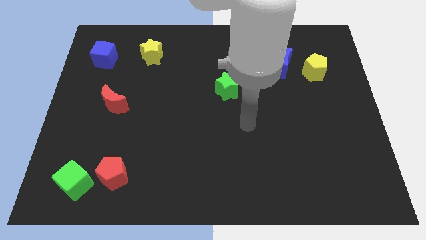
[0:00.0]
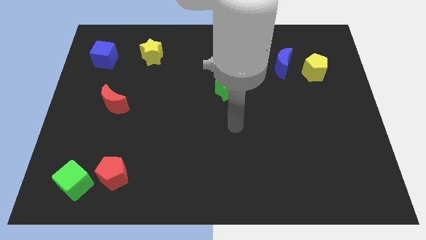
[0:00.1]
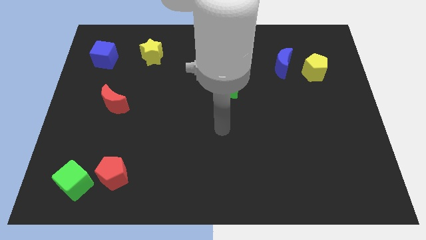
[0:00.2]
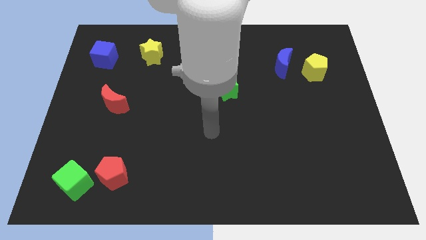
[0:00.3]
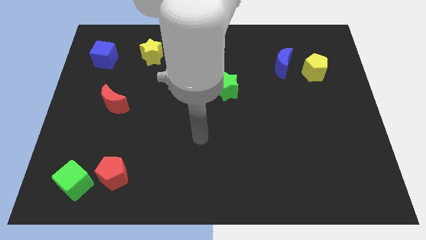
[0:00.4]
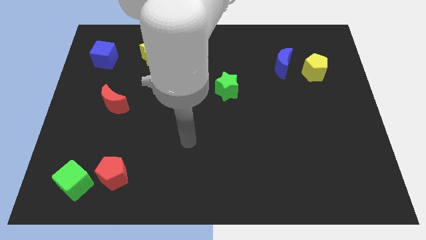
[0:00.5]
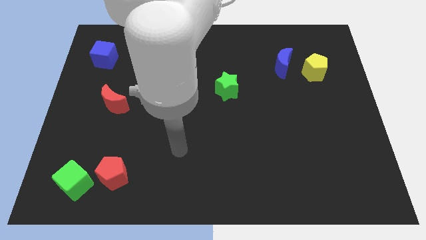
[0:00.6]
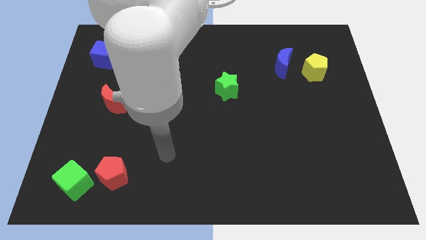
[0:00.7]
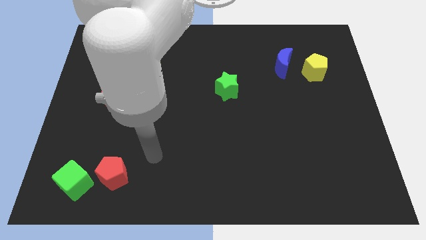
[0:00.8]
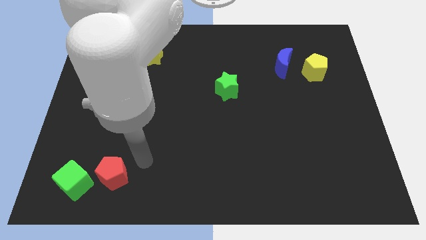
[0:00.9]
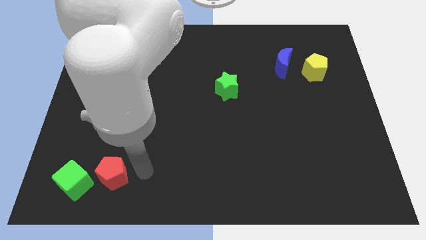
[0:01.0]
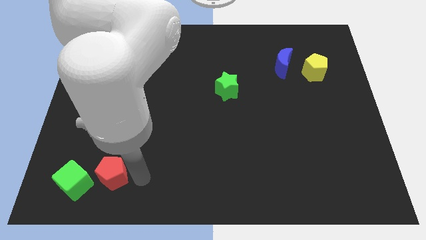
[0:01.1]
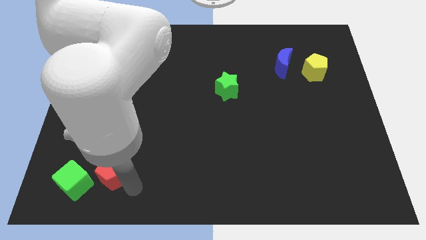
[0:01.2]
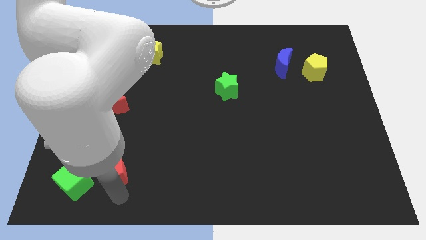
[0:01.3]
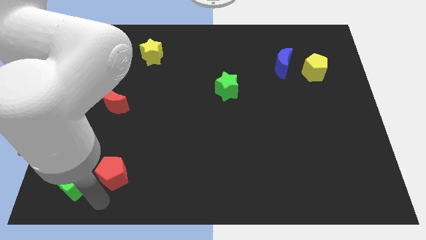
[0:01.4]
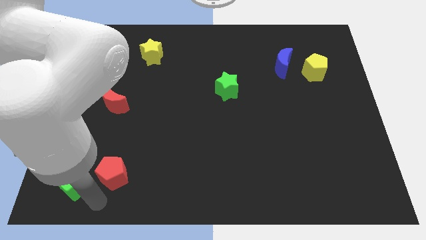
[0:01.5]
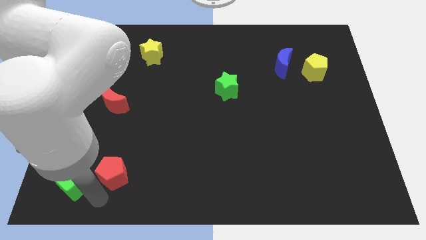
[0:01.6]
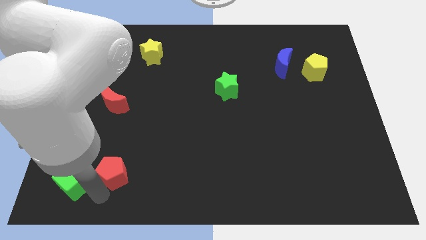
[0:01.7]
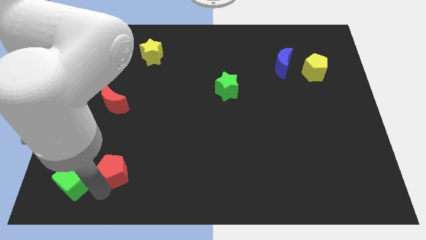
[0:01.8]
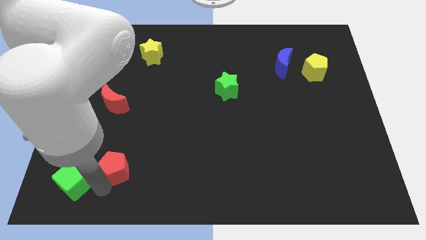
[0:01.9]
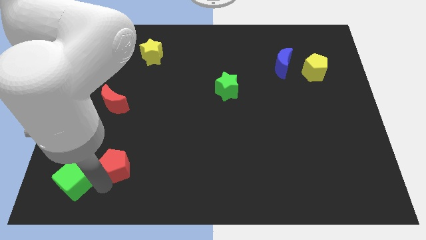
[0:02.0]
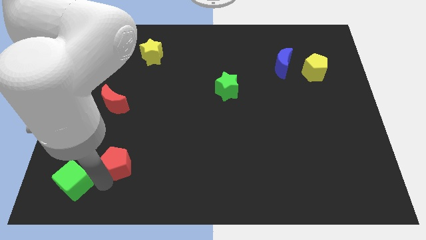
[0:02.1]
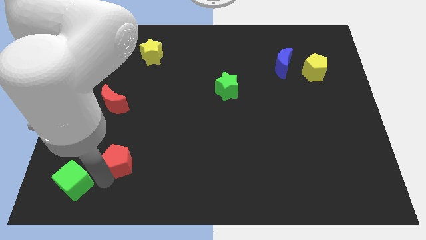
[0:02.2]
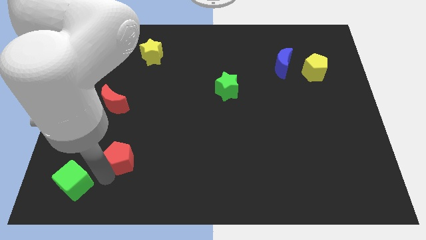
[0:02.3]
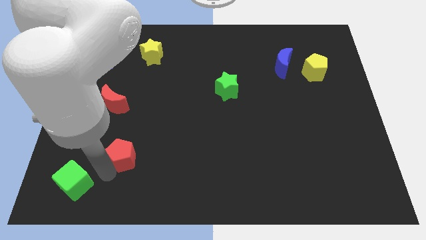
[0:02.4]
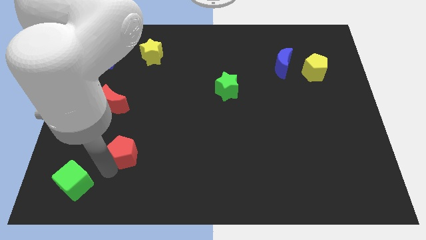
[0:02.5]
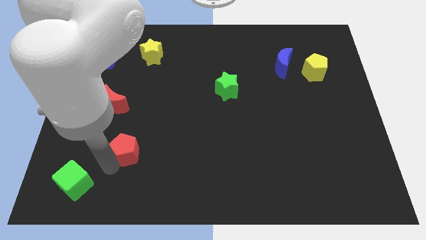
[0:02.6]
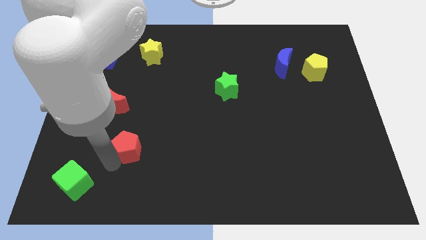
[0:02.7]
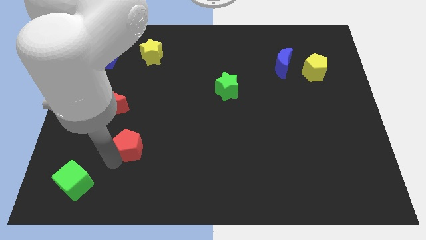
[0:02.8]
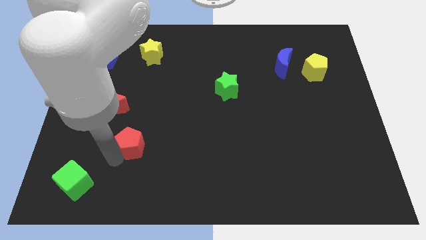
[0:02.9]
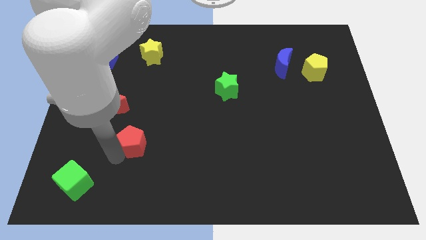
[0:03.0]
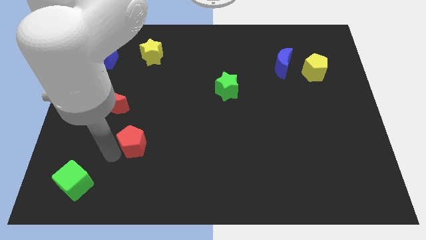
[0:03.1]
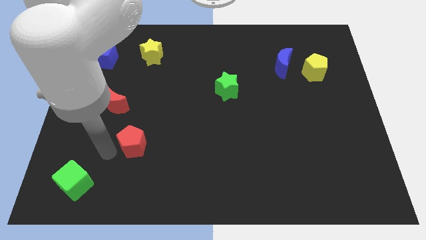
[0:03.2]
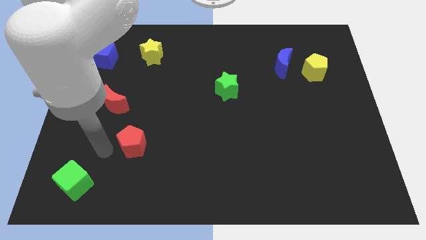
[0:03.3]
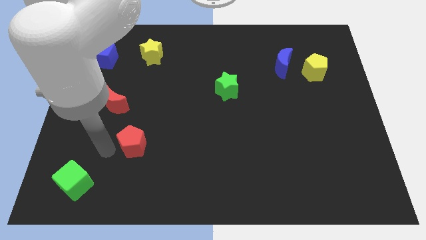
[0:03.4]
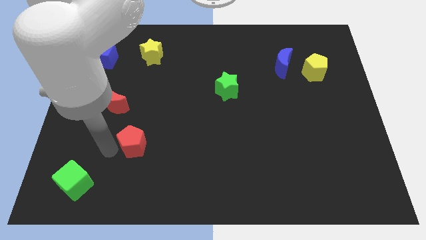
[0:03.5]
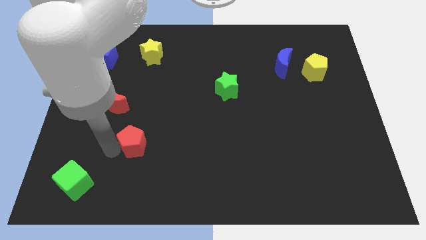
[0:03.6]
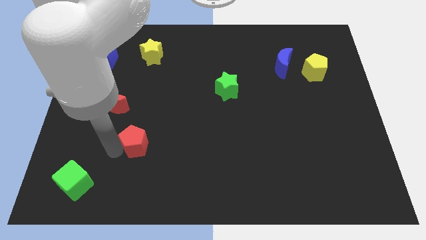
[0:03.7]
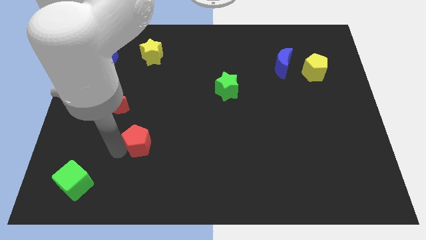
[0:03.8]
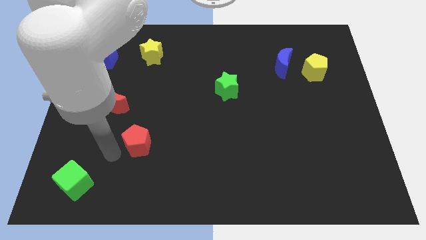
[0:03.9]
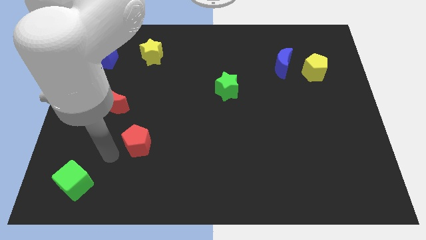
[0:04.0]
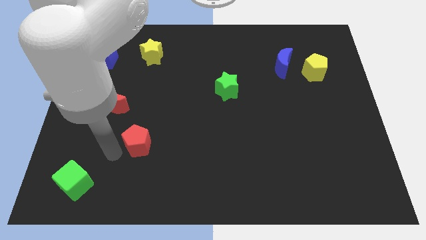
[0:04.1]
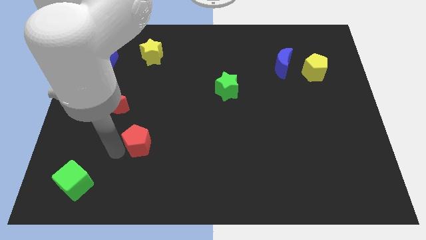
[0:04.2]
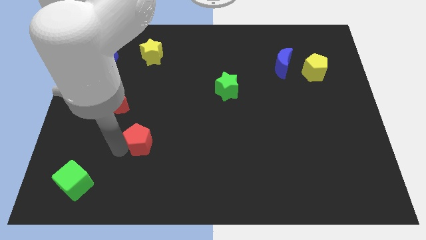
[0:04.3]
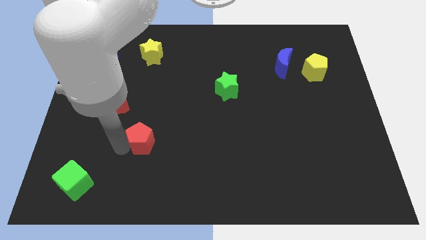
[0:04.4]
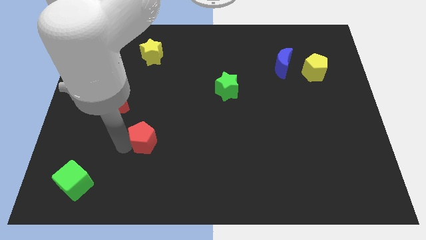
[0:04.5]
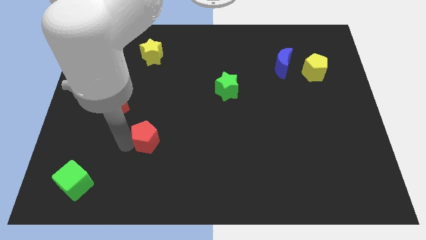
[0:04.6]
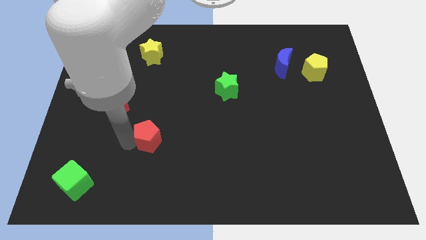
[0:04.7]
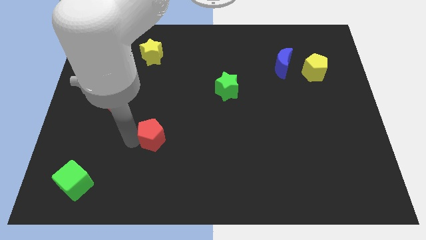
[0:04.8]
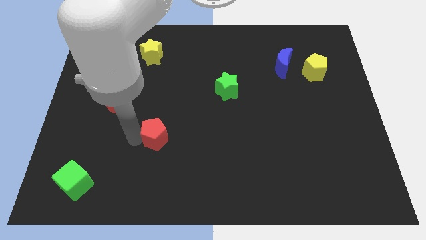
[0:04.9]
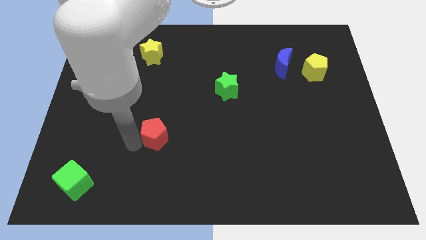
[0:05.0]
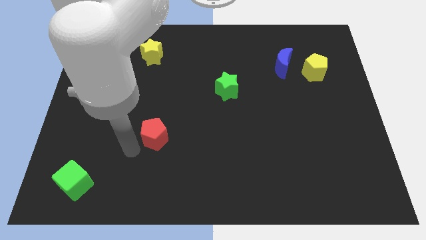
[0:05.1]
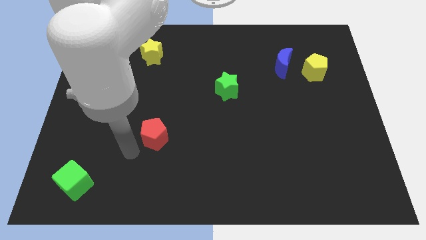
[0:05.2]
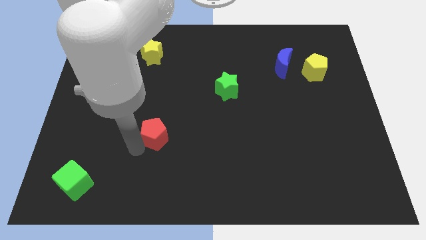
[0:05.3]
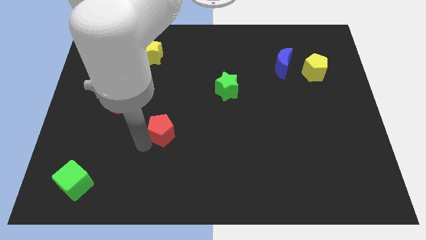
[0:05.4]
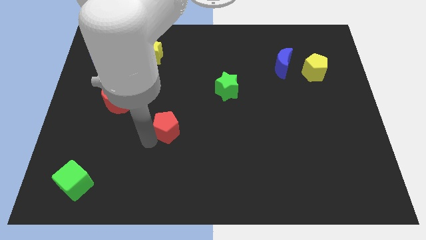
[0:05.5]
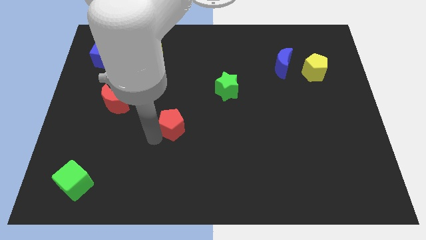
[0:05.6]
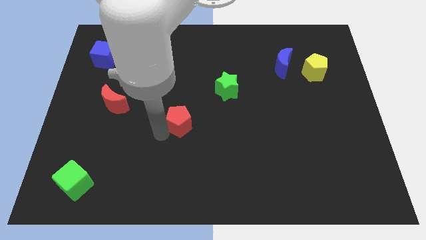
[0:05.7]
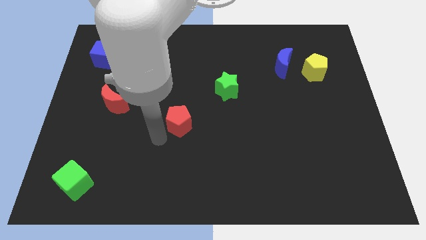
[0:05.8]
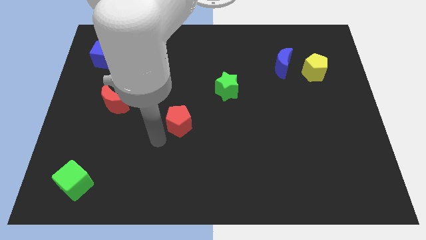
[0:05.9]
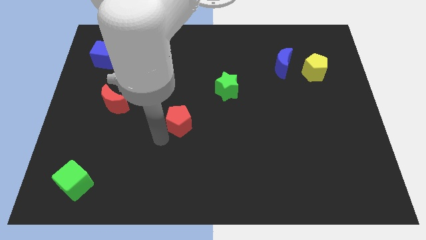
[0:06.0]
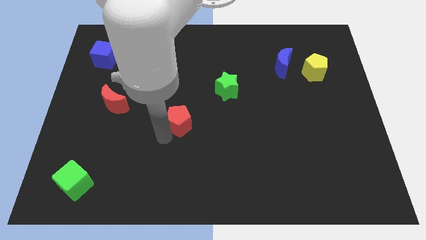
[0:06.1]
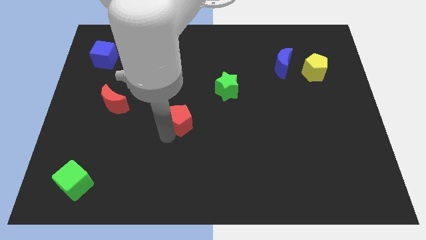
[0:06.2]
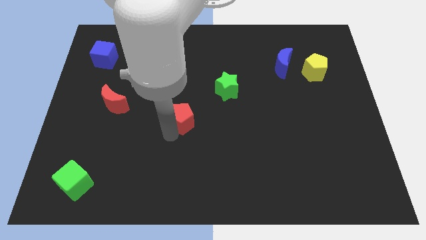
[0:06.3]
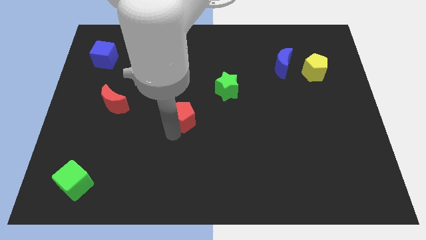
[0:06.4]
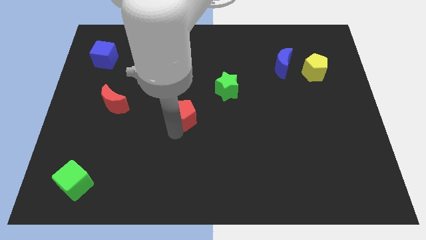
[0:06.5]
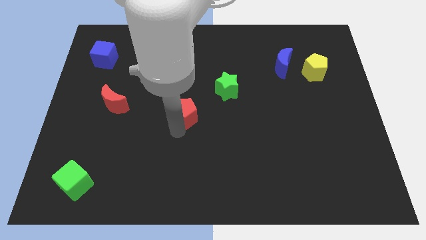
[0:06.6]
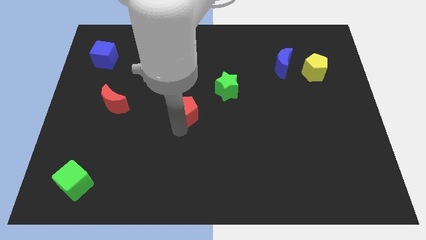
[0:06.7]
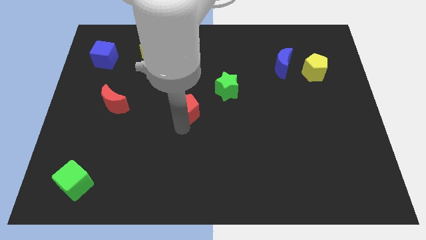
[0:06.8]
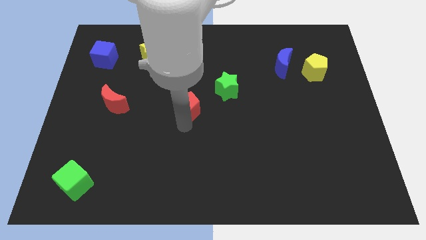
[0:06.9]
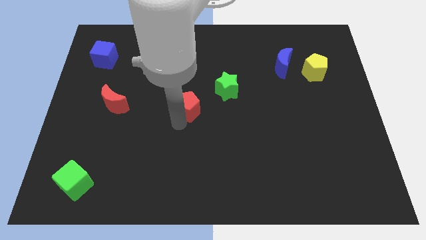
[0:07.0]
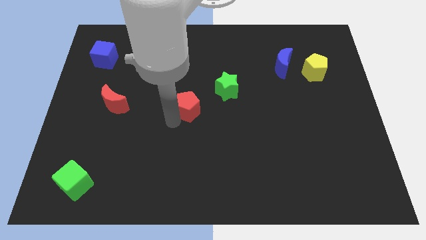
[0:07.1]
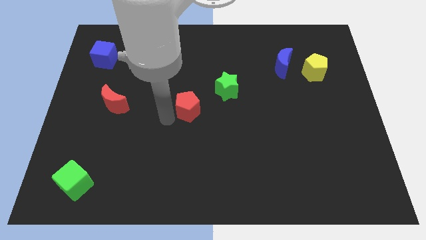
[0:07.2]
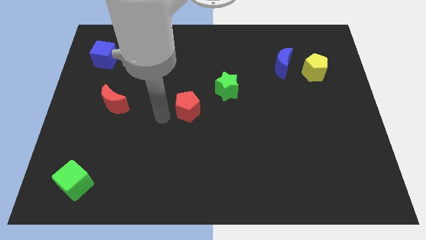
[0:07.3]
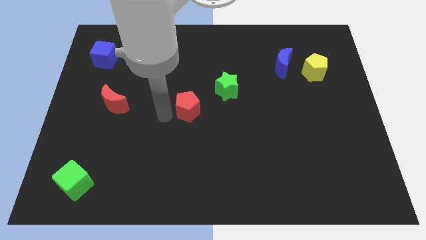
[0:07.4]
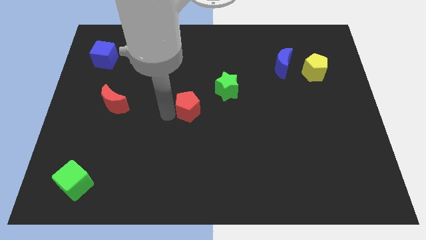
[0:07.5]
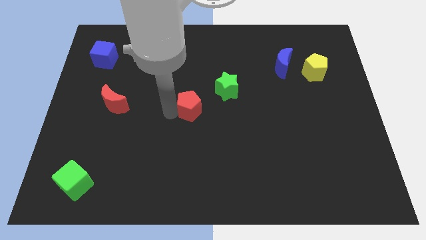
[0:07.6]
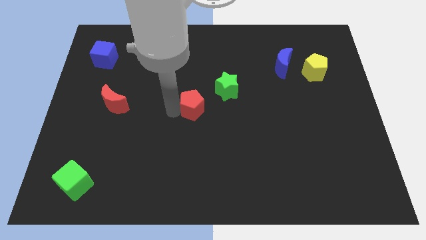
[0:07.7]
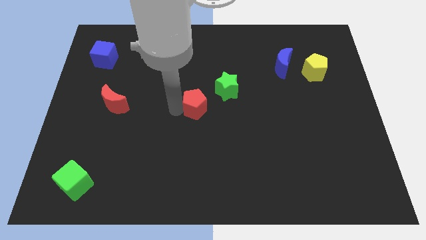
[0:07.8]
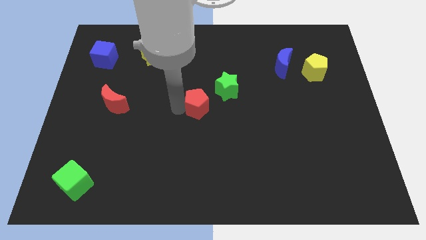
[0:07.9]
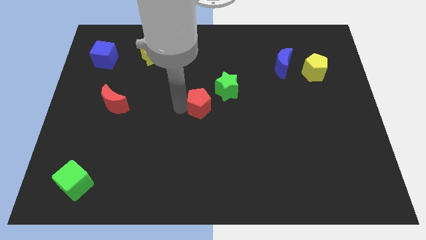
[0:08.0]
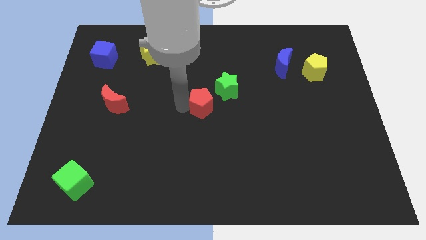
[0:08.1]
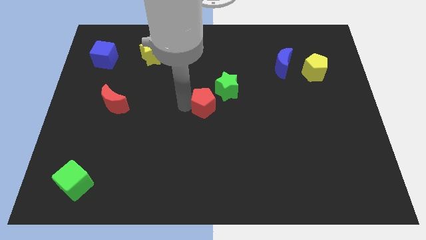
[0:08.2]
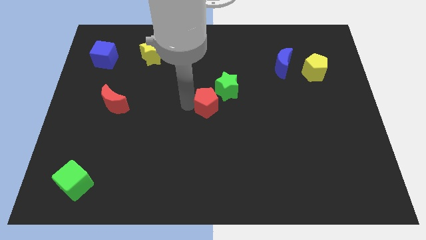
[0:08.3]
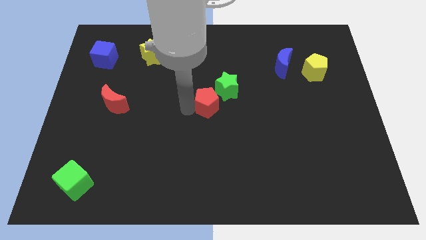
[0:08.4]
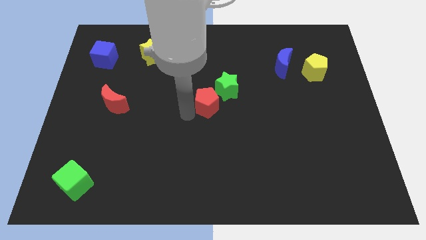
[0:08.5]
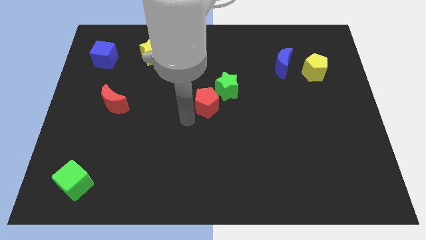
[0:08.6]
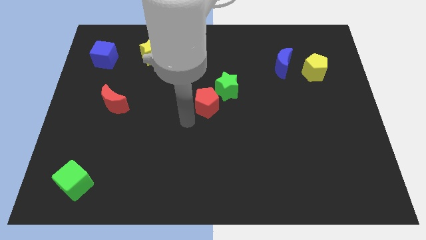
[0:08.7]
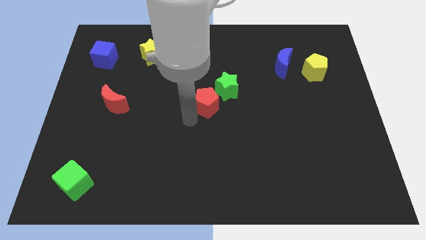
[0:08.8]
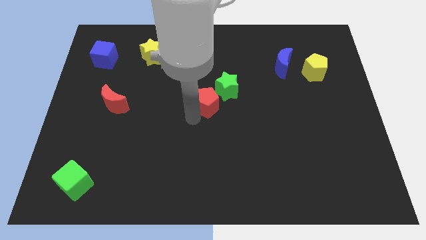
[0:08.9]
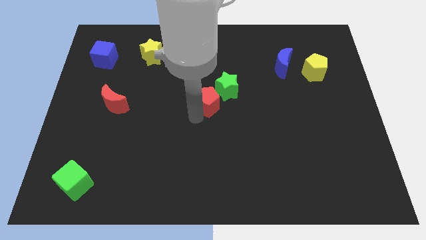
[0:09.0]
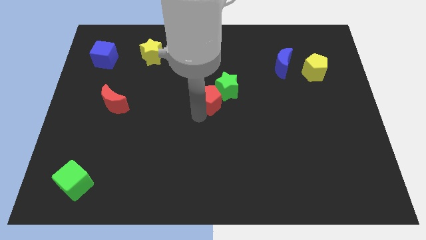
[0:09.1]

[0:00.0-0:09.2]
slide the red pentagon to the green star
